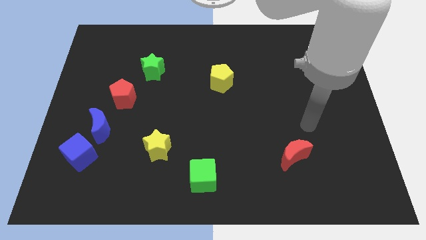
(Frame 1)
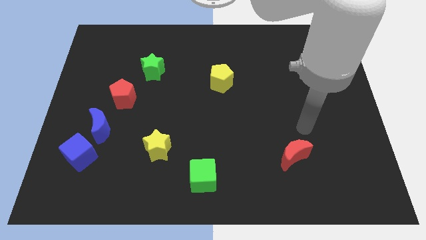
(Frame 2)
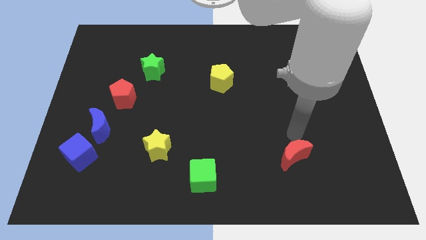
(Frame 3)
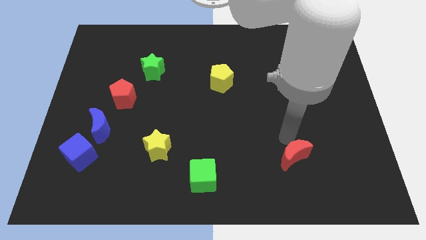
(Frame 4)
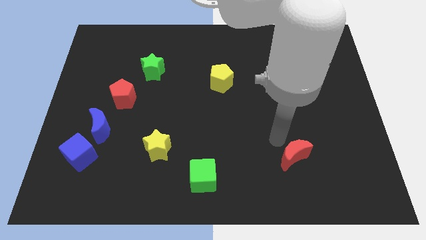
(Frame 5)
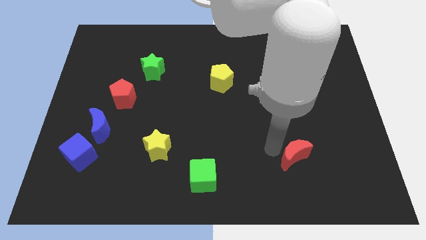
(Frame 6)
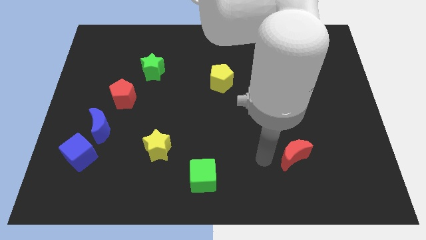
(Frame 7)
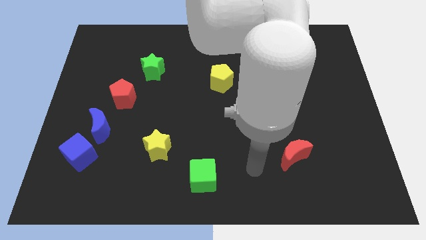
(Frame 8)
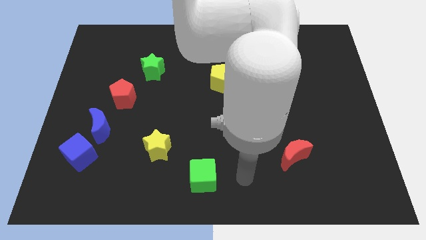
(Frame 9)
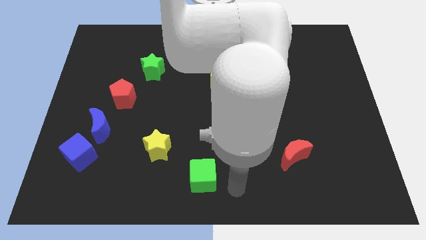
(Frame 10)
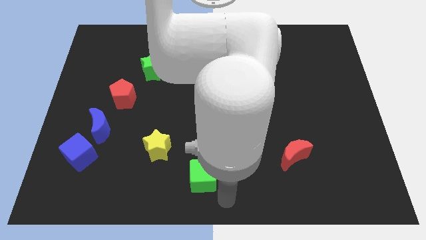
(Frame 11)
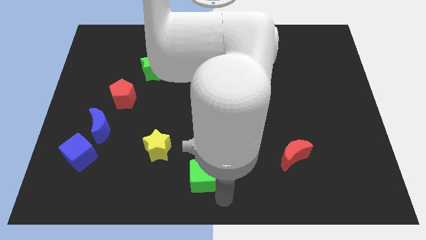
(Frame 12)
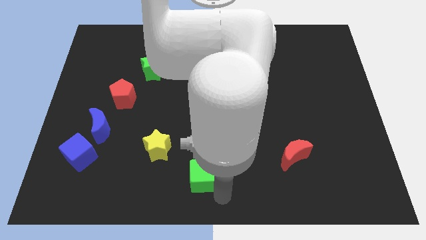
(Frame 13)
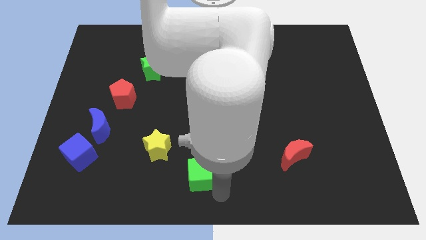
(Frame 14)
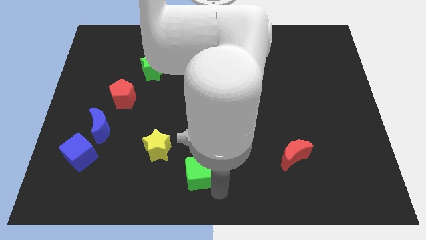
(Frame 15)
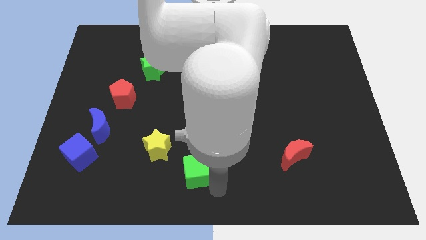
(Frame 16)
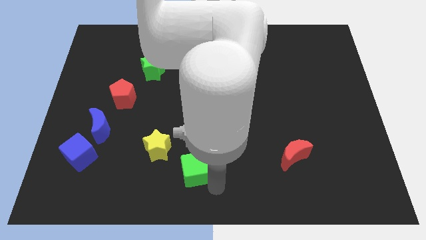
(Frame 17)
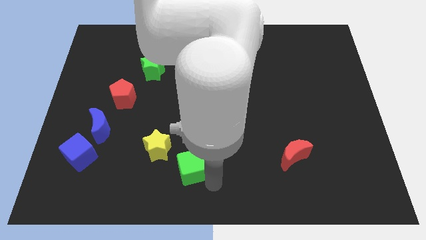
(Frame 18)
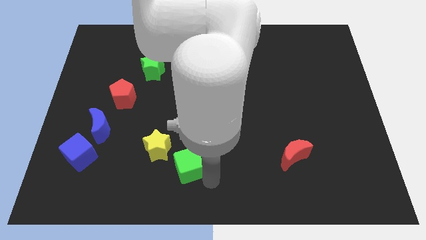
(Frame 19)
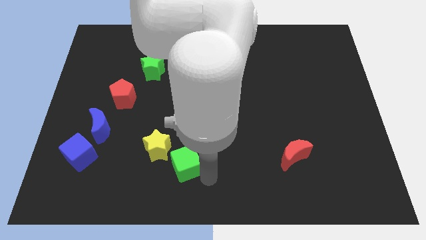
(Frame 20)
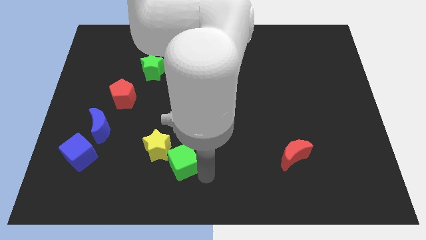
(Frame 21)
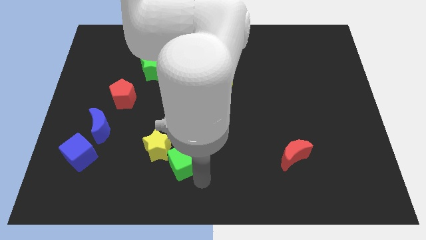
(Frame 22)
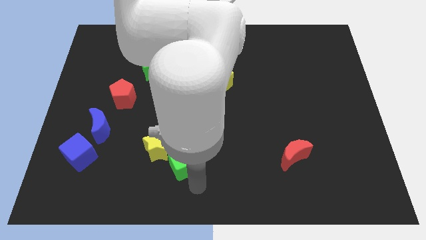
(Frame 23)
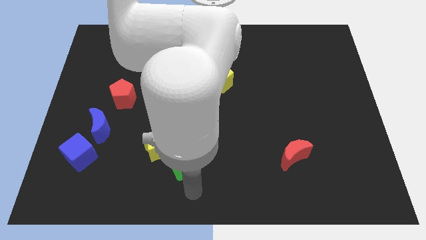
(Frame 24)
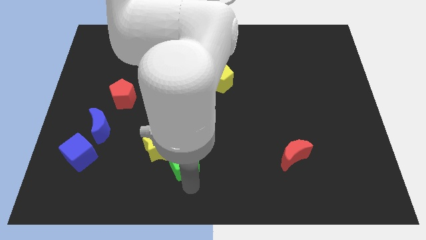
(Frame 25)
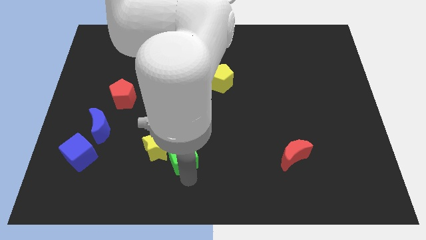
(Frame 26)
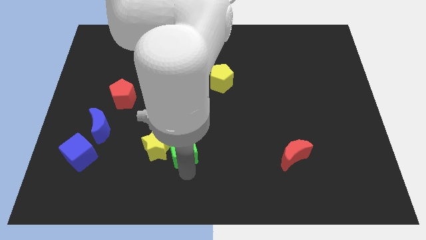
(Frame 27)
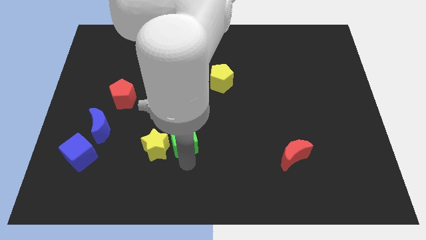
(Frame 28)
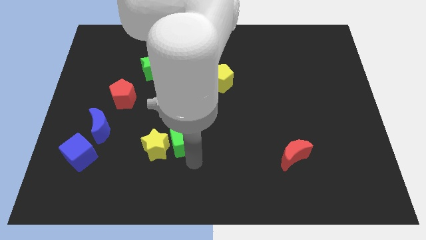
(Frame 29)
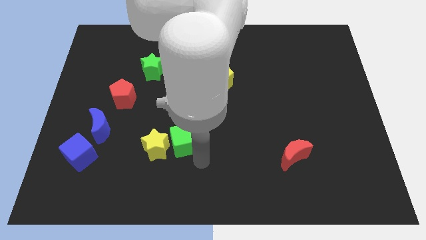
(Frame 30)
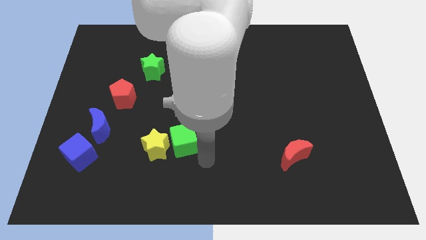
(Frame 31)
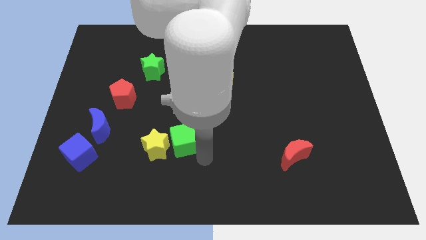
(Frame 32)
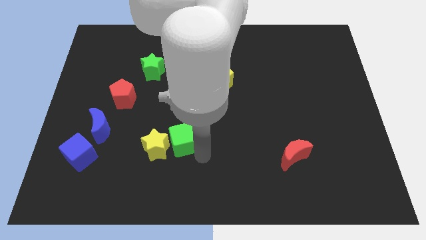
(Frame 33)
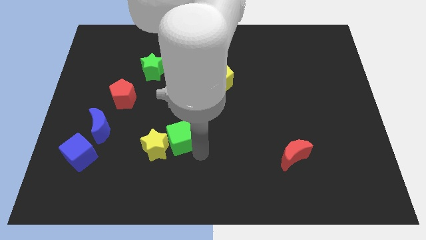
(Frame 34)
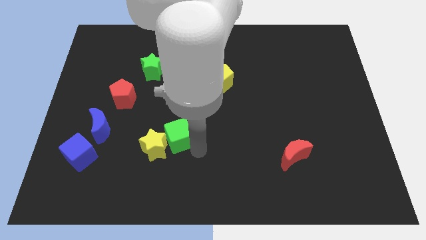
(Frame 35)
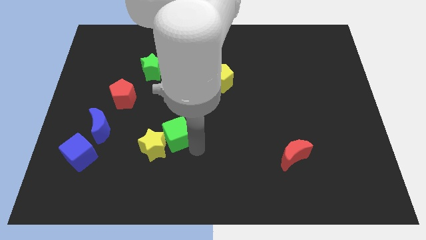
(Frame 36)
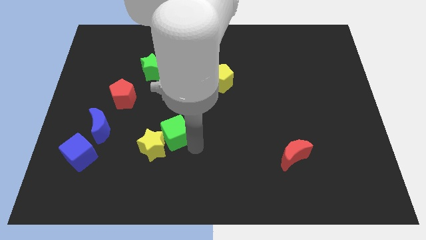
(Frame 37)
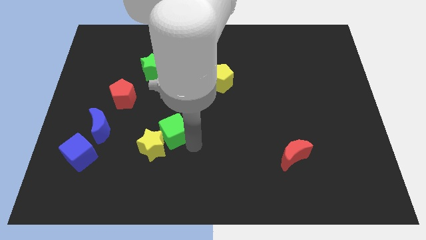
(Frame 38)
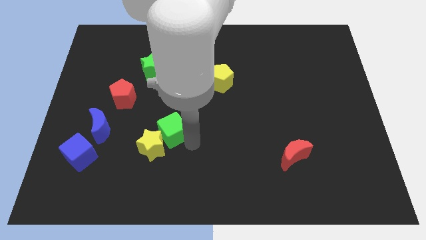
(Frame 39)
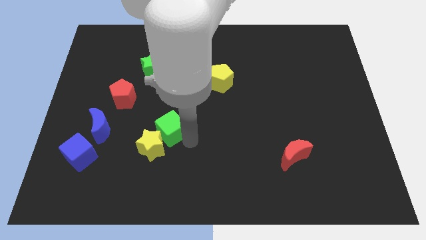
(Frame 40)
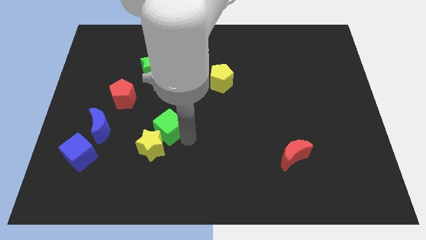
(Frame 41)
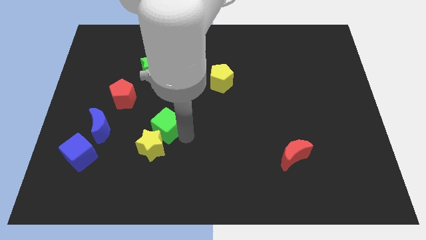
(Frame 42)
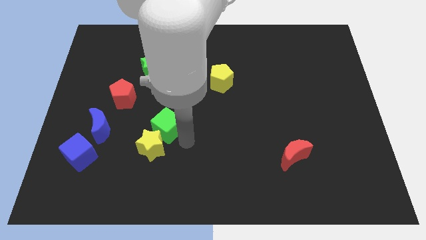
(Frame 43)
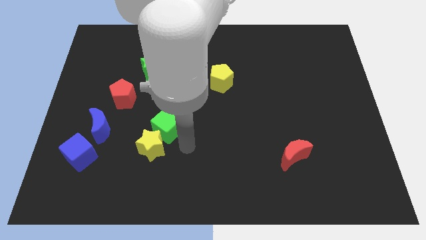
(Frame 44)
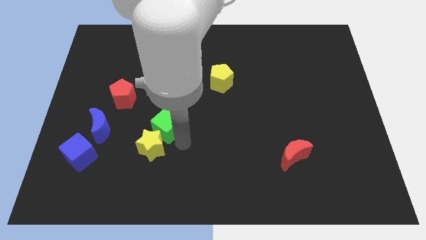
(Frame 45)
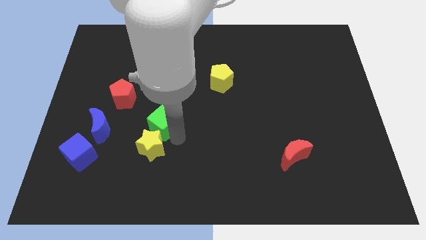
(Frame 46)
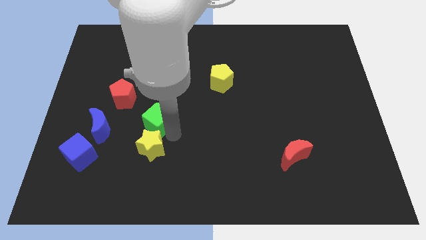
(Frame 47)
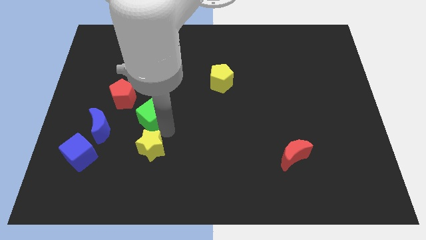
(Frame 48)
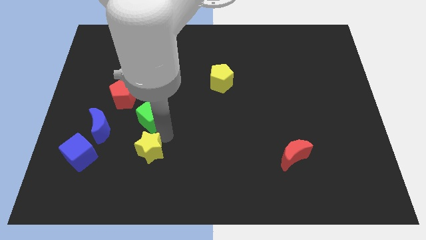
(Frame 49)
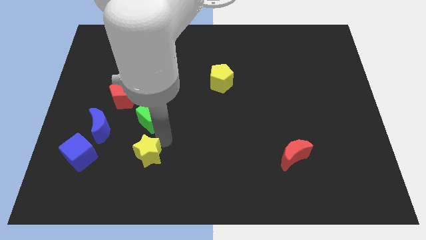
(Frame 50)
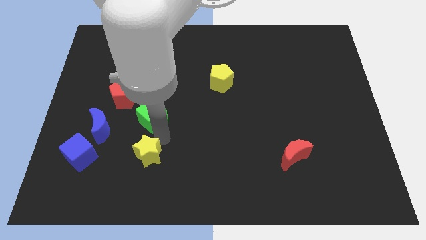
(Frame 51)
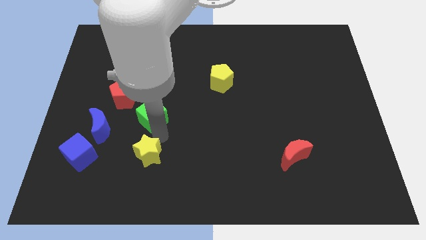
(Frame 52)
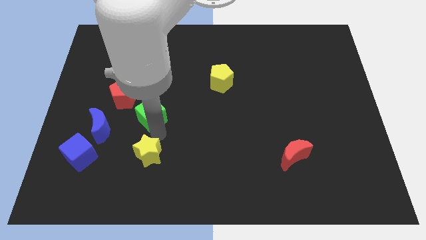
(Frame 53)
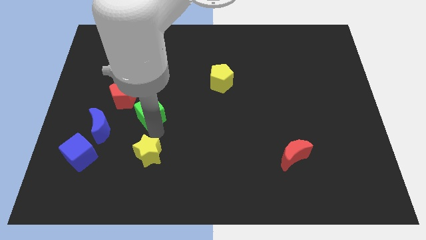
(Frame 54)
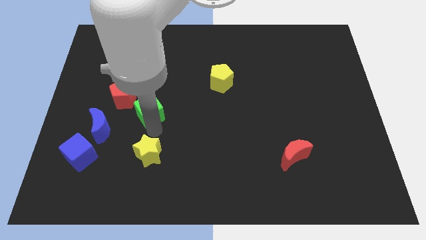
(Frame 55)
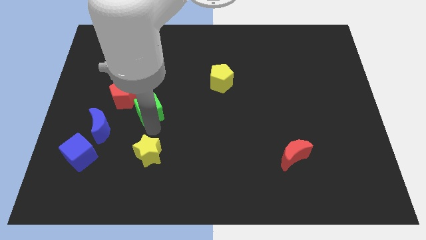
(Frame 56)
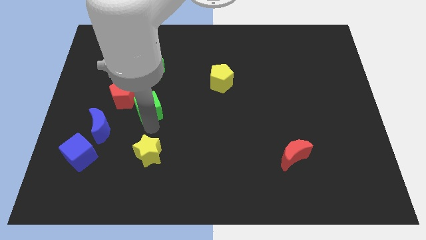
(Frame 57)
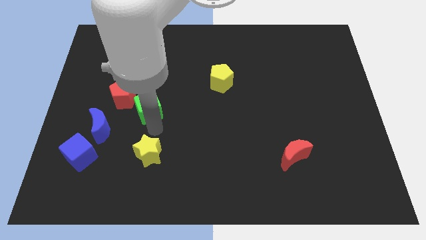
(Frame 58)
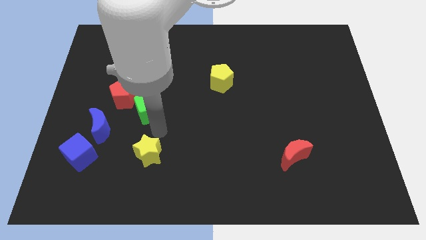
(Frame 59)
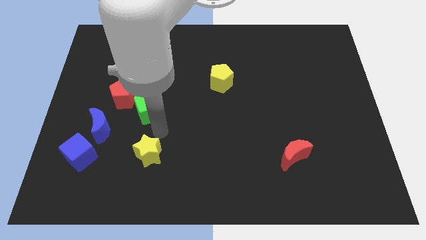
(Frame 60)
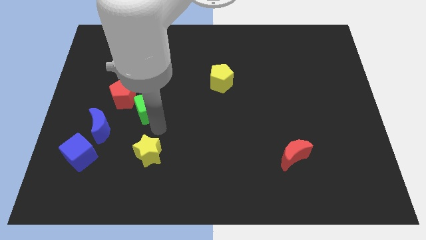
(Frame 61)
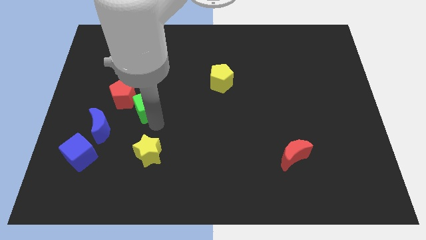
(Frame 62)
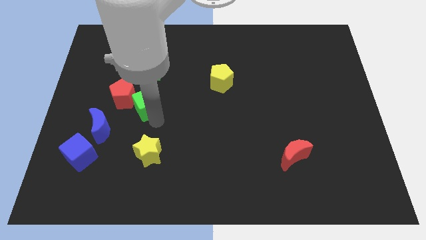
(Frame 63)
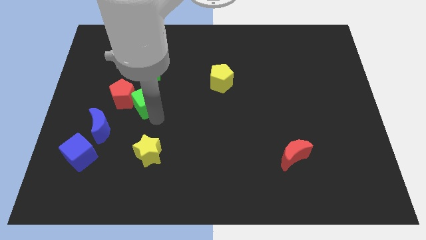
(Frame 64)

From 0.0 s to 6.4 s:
push the green cube close to the red pentagon

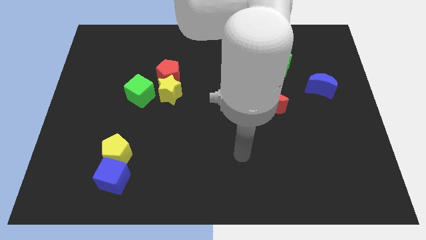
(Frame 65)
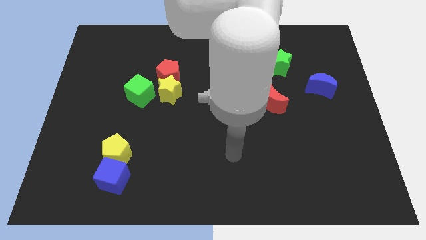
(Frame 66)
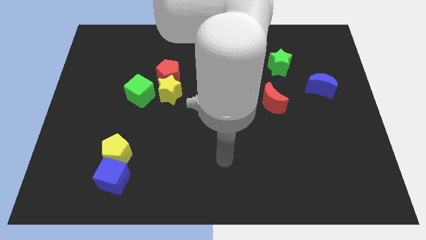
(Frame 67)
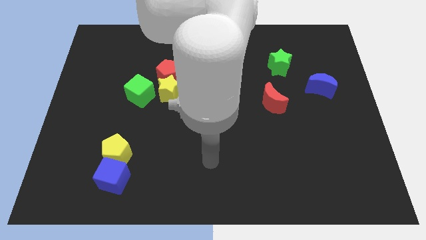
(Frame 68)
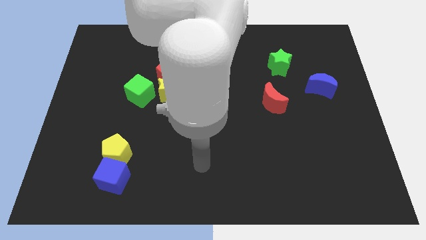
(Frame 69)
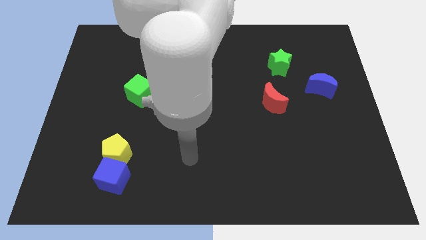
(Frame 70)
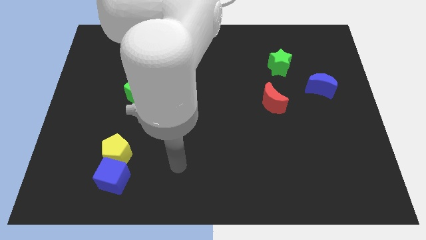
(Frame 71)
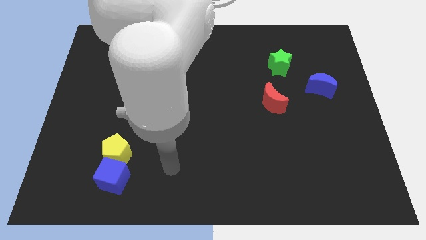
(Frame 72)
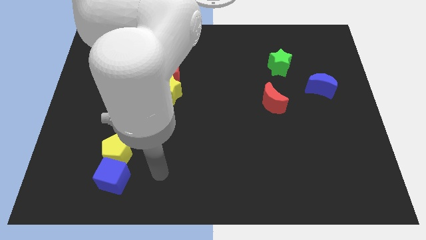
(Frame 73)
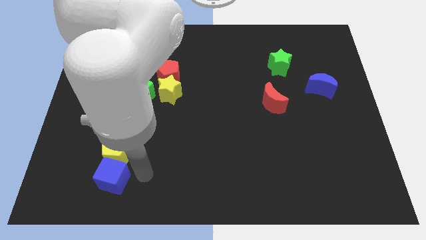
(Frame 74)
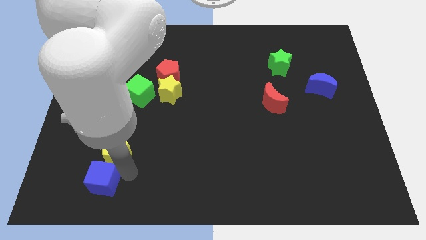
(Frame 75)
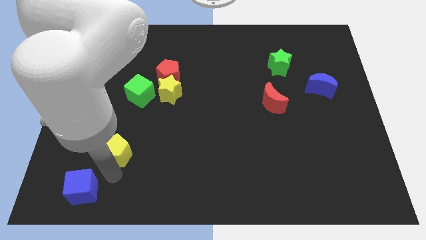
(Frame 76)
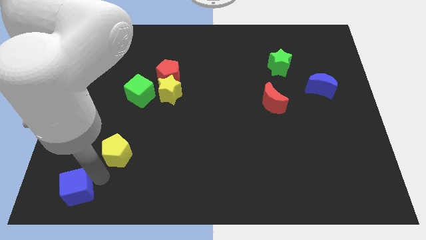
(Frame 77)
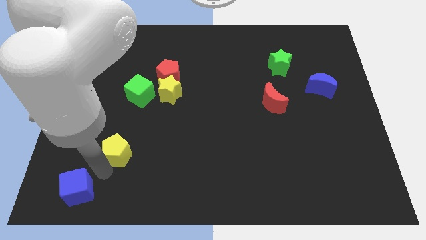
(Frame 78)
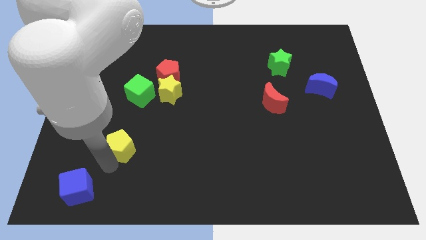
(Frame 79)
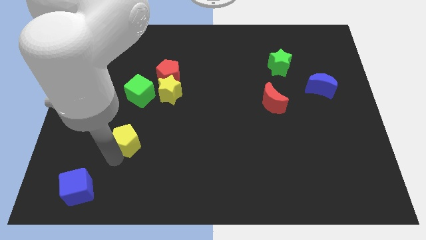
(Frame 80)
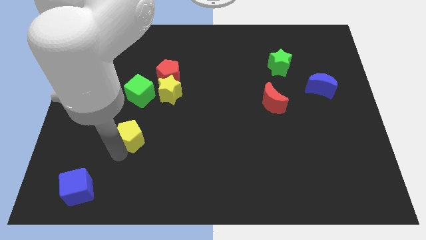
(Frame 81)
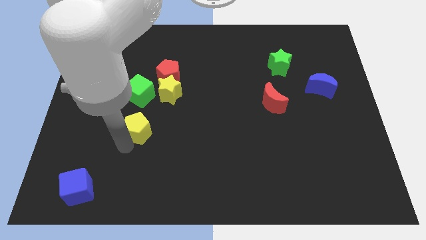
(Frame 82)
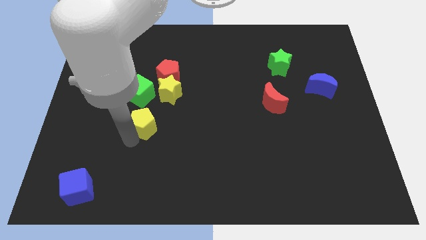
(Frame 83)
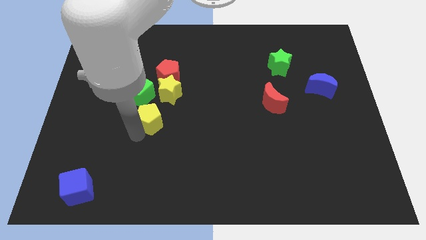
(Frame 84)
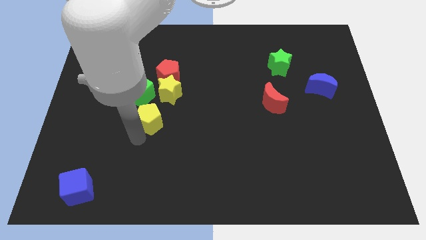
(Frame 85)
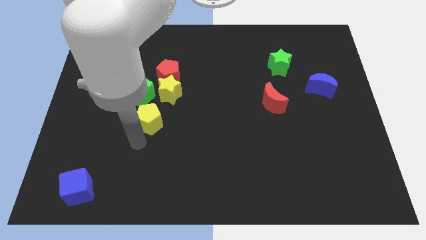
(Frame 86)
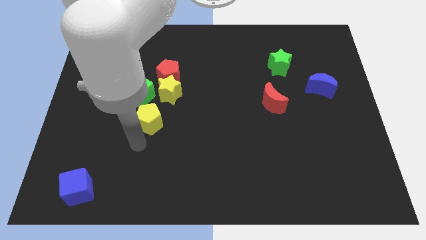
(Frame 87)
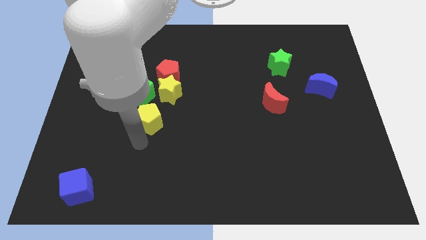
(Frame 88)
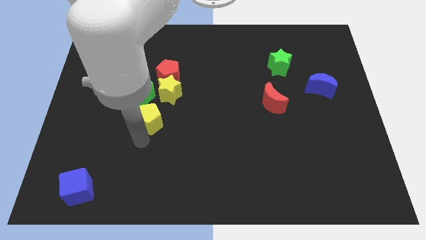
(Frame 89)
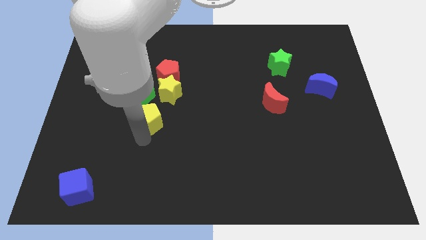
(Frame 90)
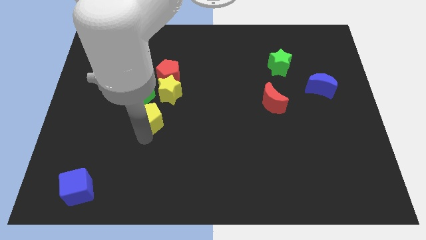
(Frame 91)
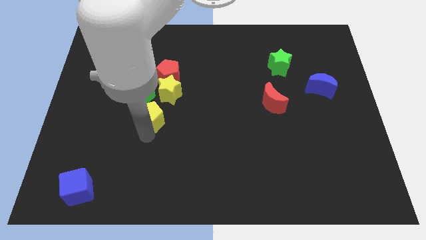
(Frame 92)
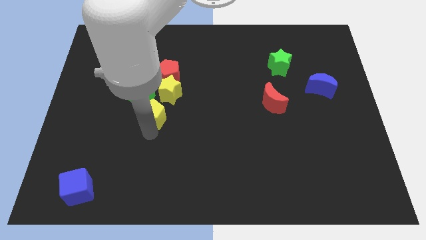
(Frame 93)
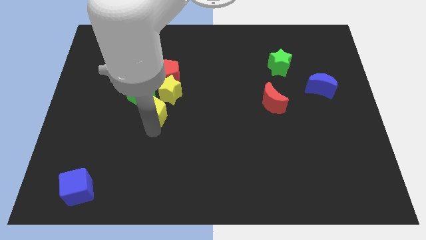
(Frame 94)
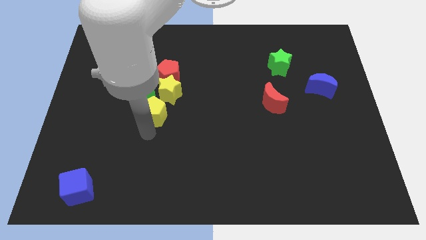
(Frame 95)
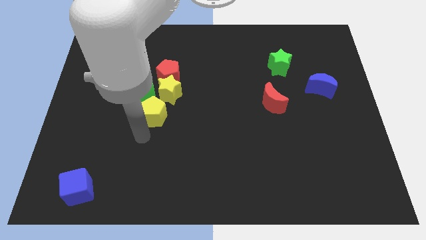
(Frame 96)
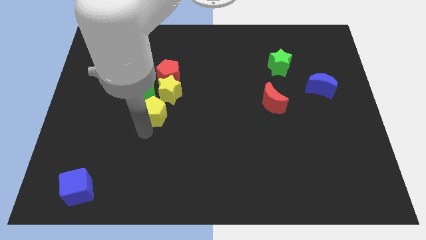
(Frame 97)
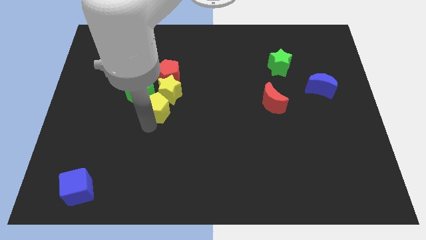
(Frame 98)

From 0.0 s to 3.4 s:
move the yellow pentagon next to the yellow star
